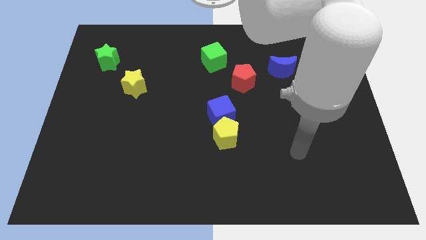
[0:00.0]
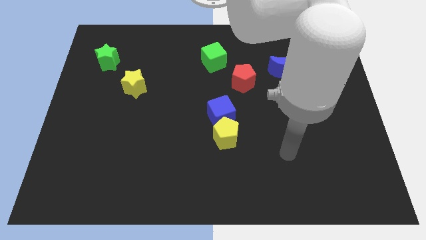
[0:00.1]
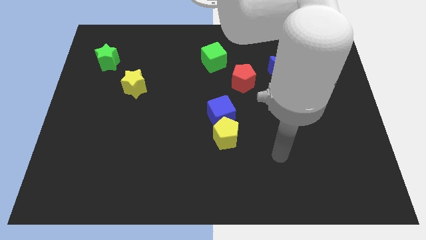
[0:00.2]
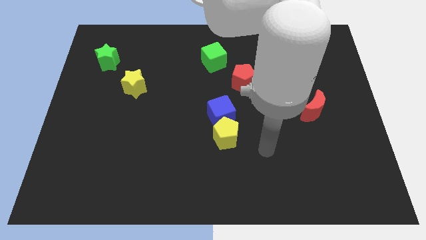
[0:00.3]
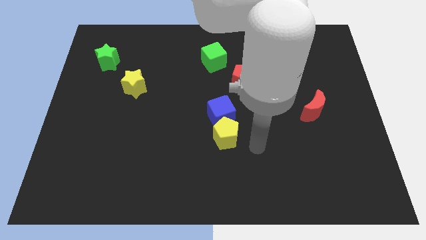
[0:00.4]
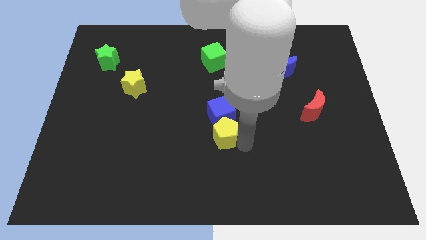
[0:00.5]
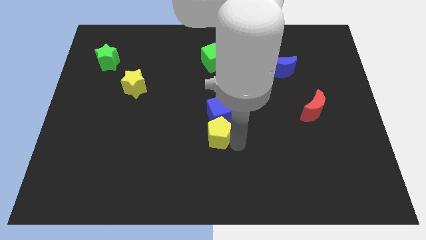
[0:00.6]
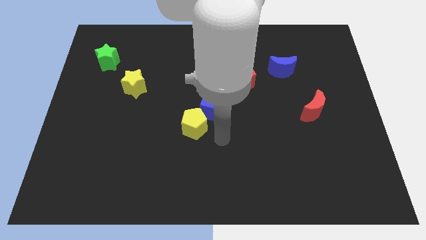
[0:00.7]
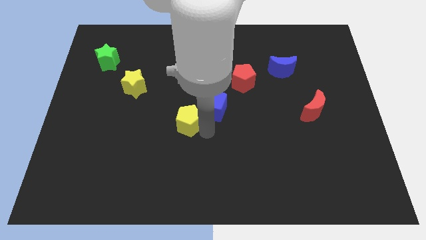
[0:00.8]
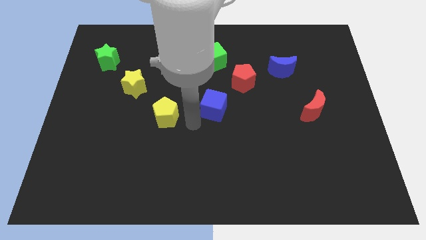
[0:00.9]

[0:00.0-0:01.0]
pull the blue cube apart from the yellow pentagon

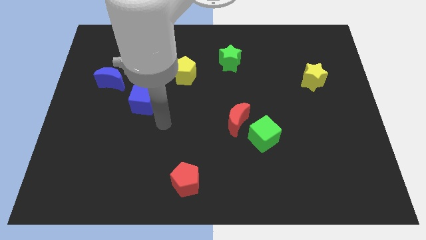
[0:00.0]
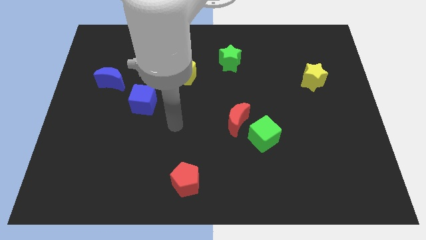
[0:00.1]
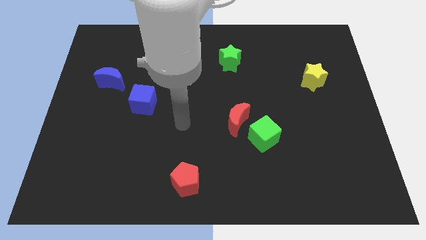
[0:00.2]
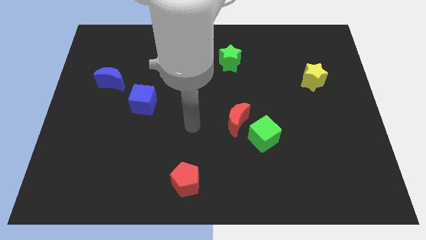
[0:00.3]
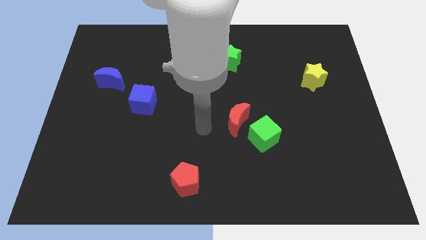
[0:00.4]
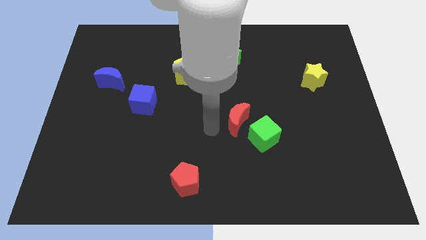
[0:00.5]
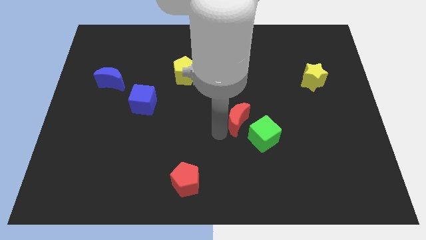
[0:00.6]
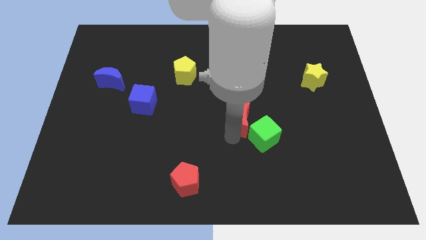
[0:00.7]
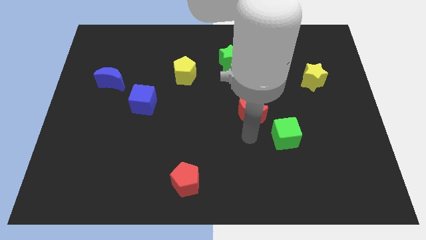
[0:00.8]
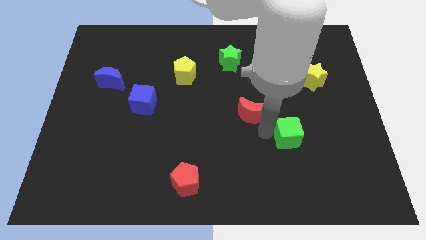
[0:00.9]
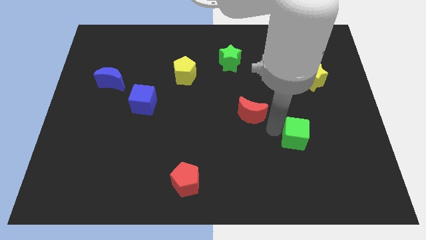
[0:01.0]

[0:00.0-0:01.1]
move the red moon away from the green cube

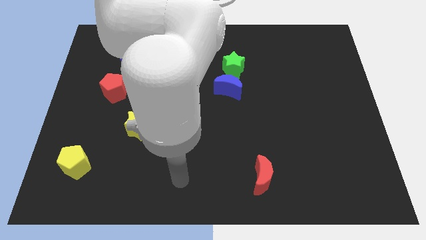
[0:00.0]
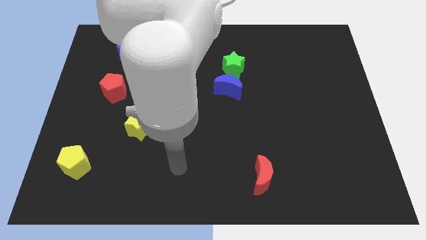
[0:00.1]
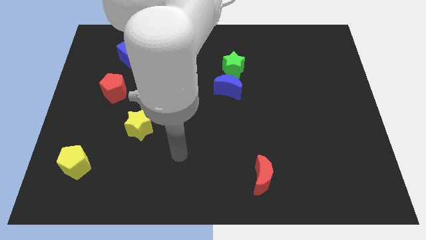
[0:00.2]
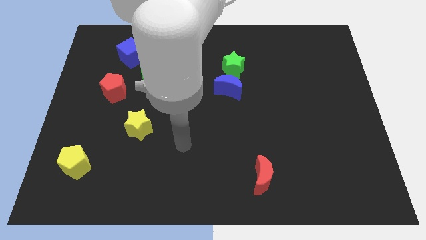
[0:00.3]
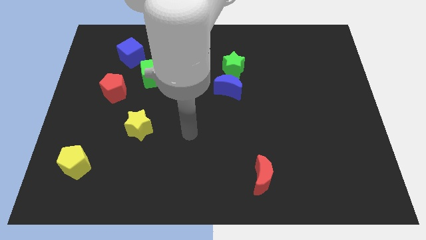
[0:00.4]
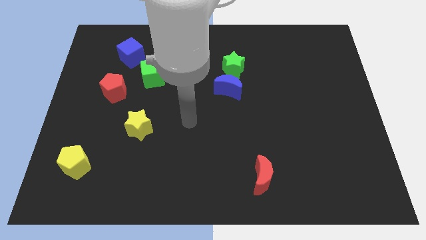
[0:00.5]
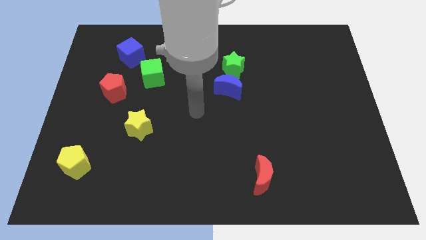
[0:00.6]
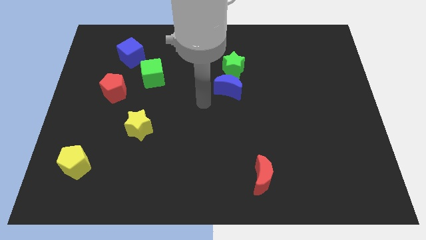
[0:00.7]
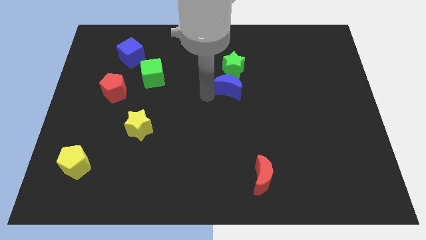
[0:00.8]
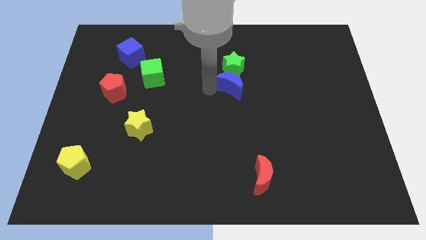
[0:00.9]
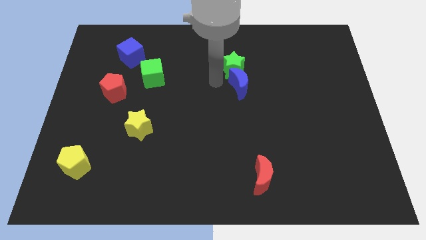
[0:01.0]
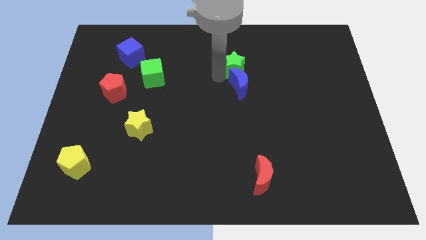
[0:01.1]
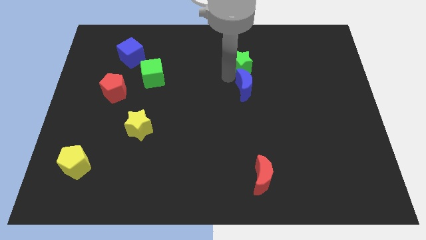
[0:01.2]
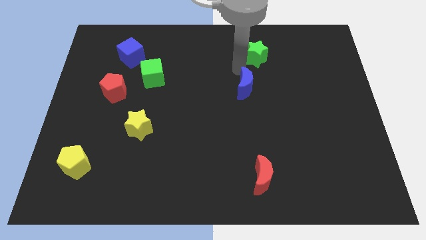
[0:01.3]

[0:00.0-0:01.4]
pull the blue moon apart from the green star

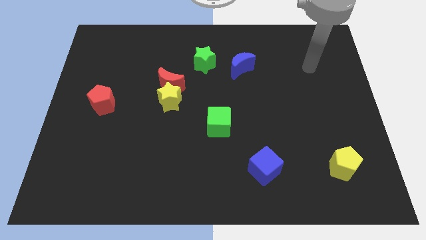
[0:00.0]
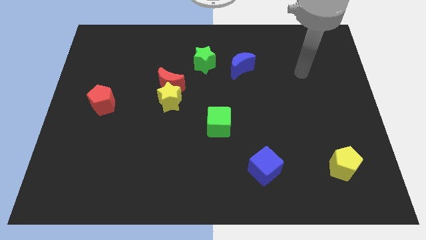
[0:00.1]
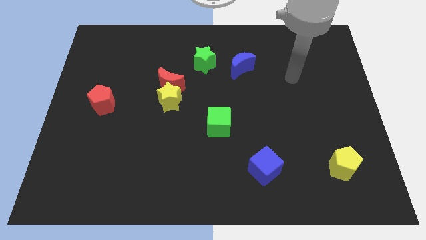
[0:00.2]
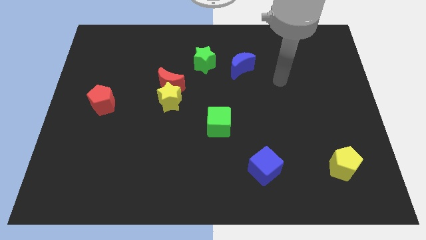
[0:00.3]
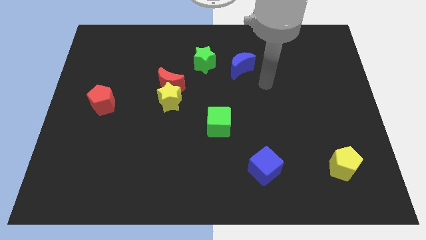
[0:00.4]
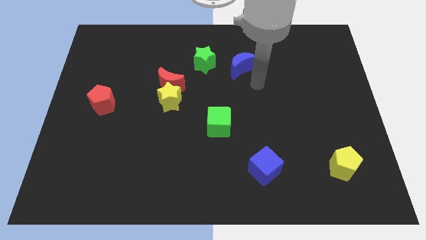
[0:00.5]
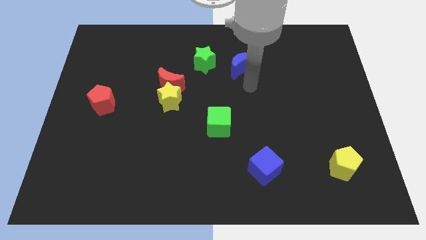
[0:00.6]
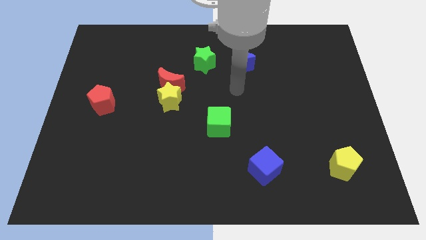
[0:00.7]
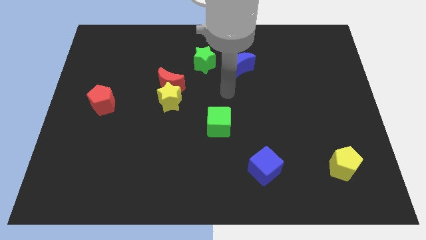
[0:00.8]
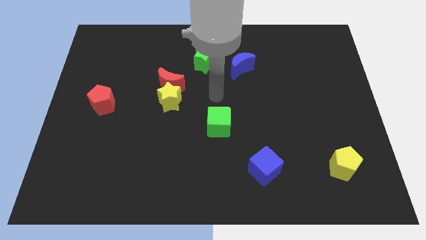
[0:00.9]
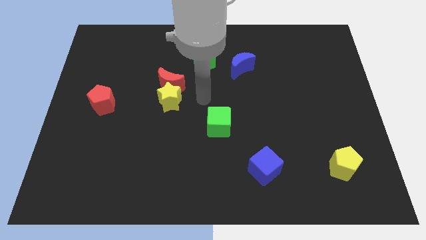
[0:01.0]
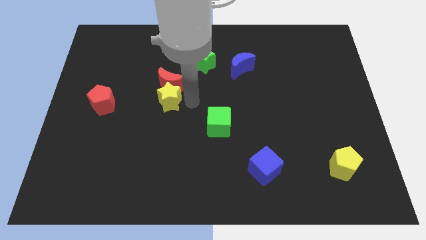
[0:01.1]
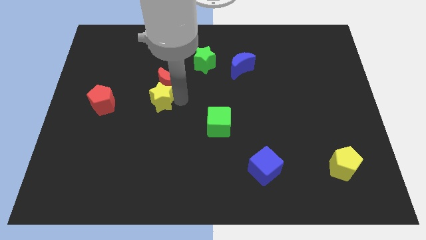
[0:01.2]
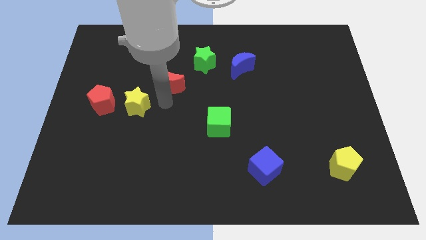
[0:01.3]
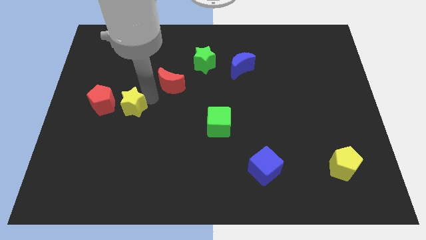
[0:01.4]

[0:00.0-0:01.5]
pull the red moon apart from the yellow star

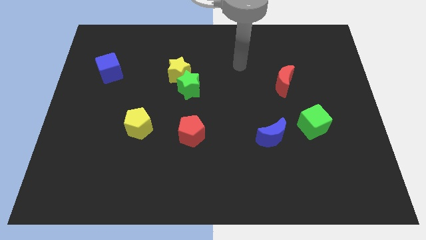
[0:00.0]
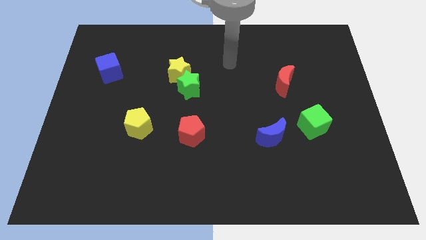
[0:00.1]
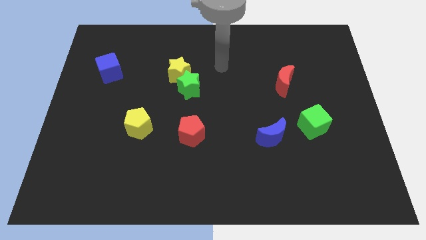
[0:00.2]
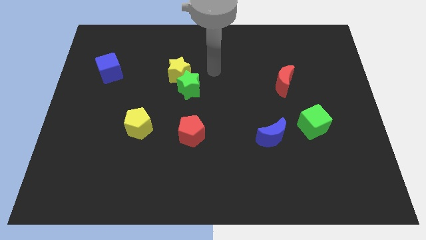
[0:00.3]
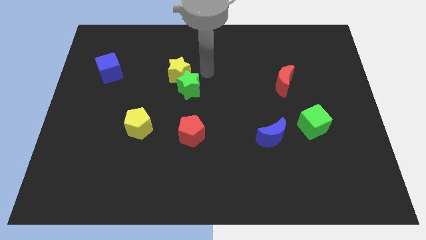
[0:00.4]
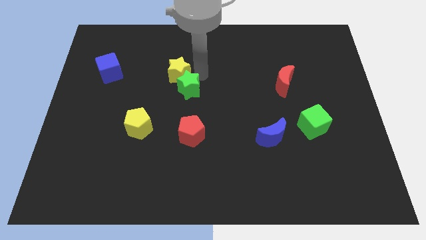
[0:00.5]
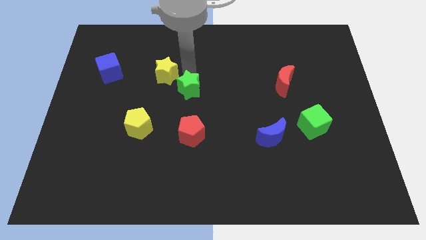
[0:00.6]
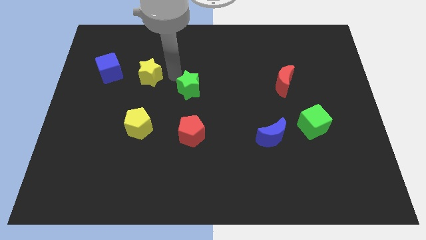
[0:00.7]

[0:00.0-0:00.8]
separate the green star from the yellow star

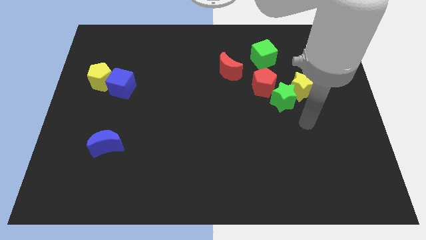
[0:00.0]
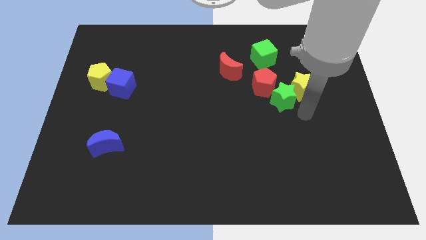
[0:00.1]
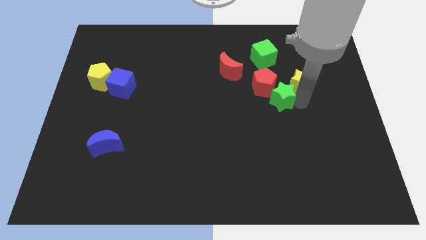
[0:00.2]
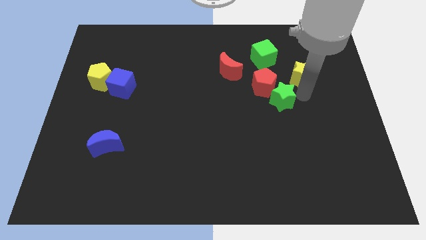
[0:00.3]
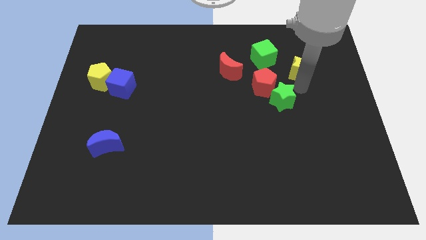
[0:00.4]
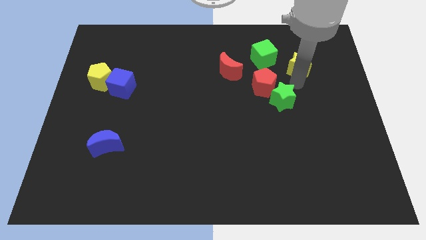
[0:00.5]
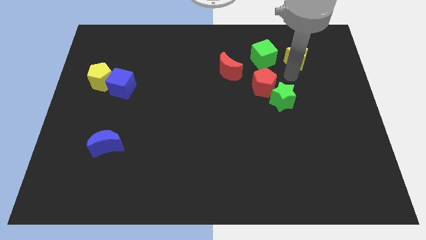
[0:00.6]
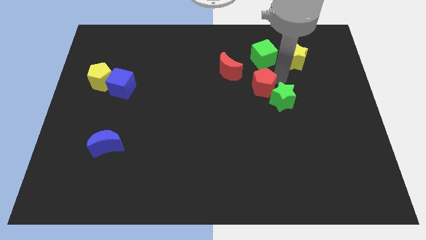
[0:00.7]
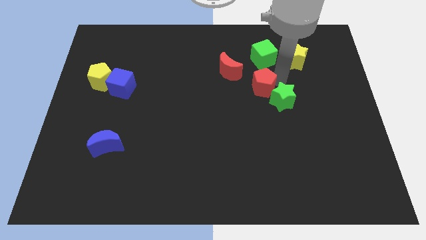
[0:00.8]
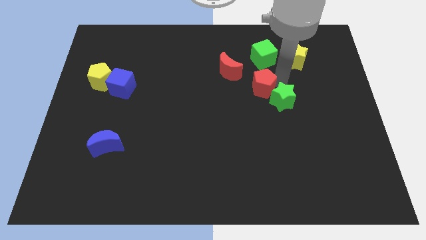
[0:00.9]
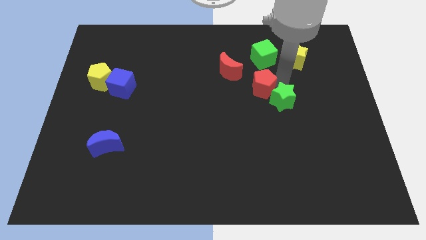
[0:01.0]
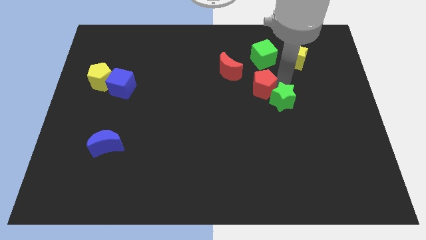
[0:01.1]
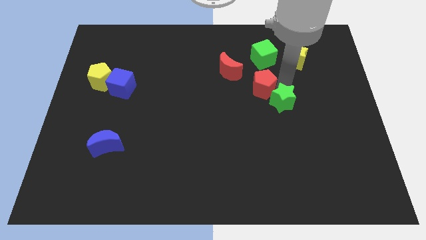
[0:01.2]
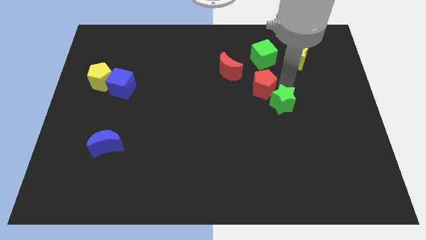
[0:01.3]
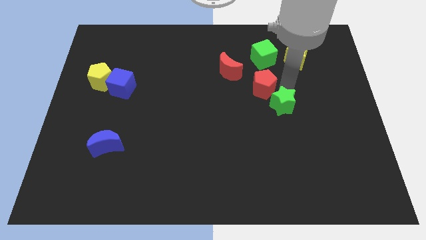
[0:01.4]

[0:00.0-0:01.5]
separate the green star from the yellow star and red pentagon

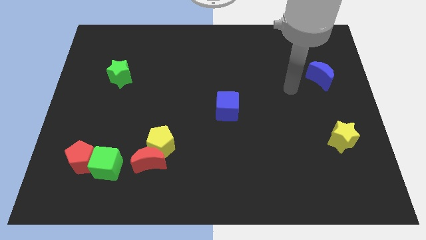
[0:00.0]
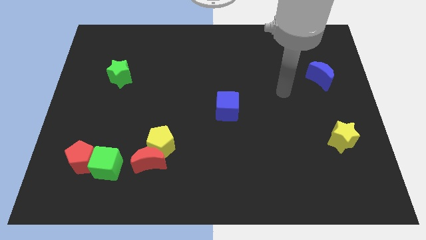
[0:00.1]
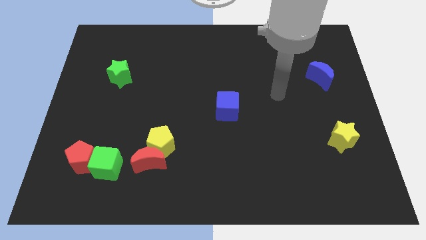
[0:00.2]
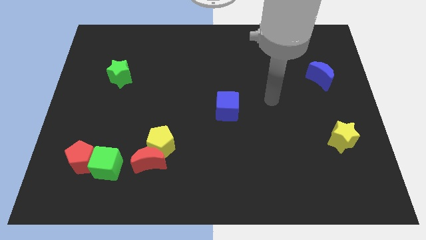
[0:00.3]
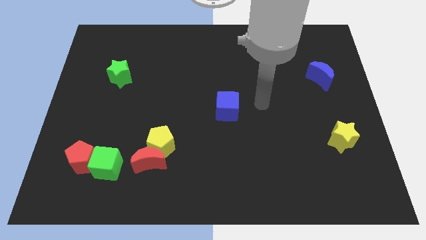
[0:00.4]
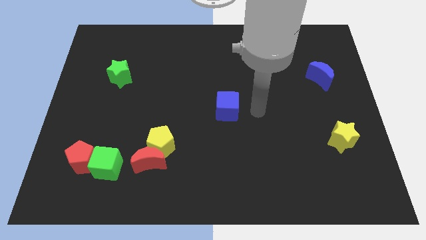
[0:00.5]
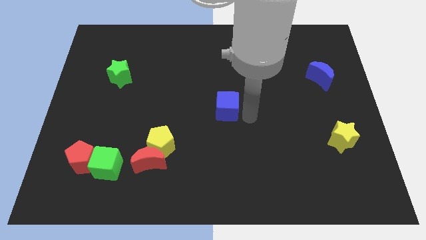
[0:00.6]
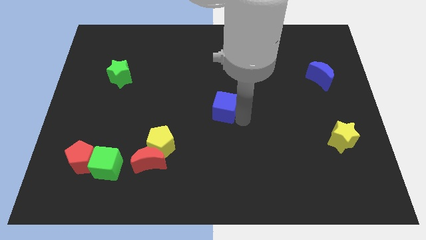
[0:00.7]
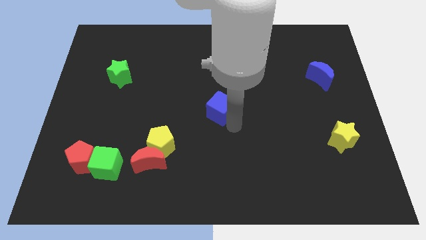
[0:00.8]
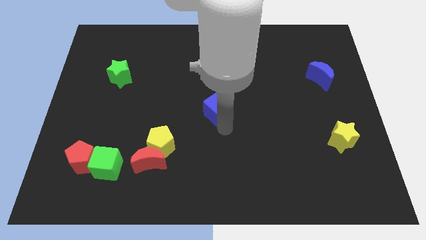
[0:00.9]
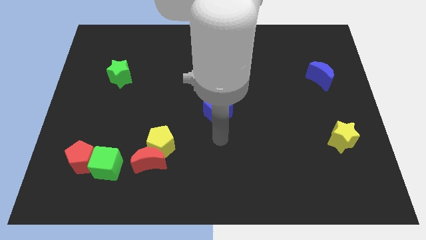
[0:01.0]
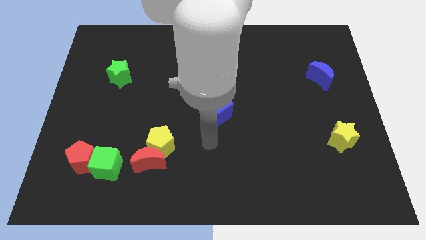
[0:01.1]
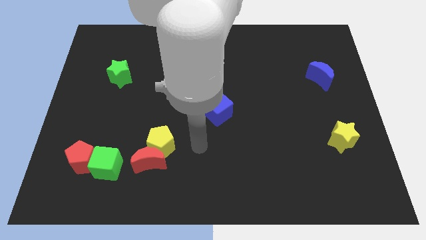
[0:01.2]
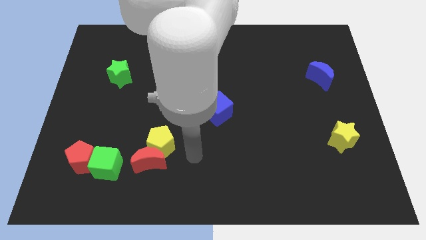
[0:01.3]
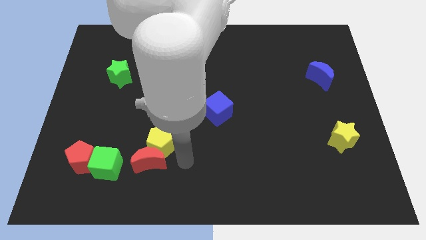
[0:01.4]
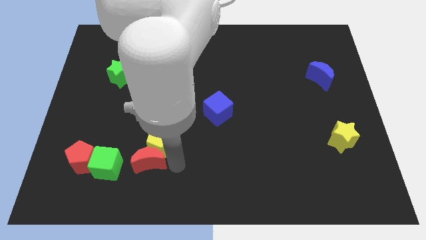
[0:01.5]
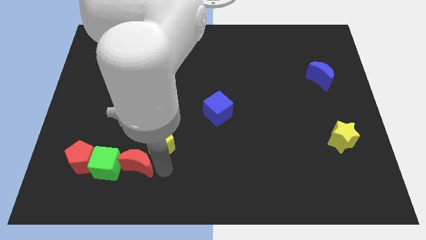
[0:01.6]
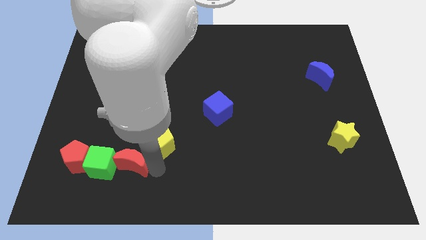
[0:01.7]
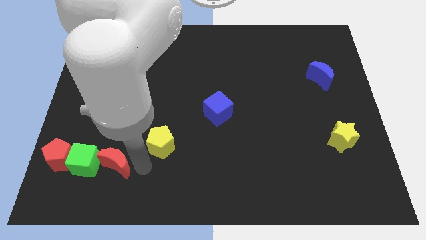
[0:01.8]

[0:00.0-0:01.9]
move the yellow pentagon away from the red moon

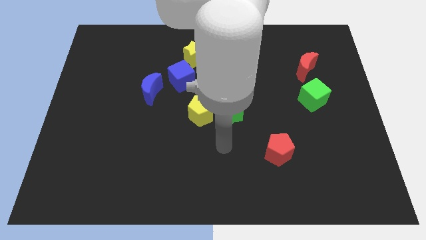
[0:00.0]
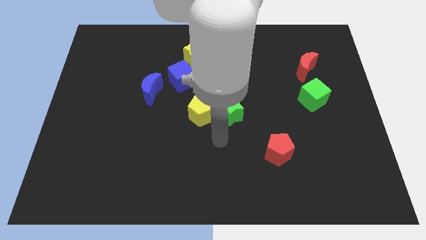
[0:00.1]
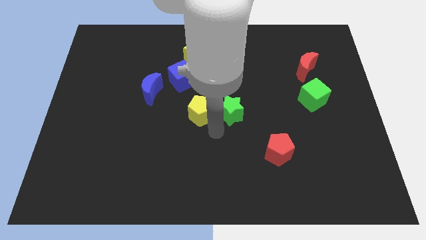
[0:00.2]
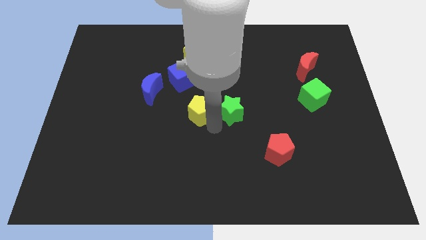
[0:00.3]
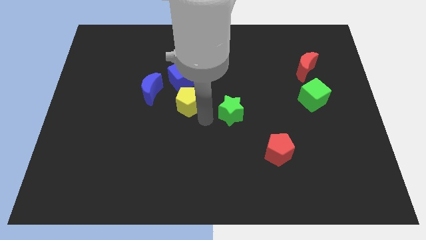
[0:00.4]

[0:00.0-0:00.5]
separate the green star from the yellow pentagon
